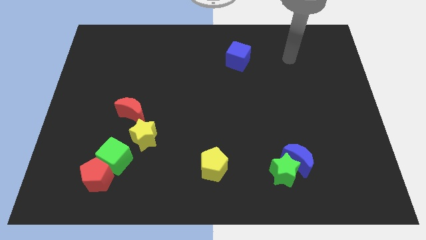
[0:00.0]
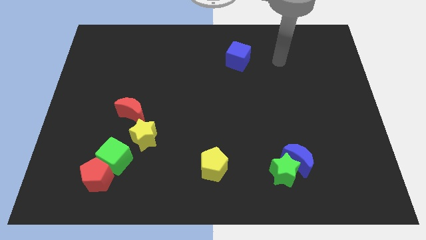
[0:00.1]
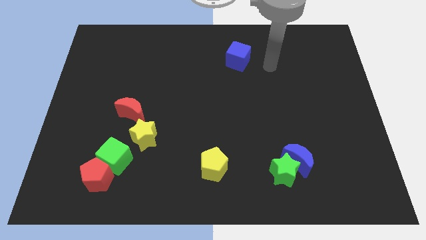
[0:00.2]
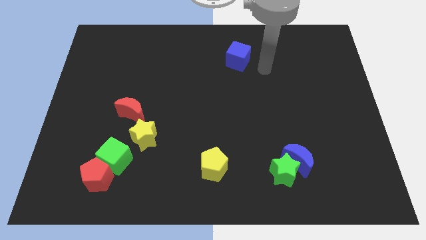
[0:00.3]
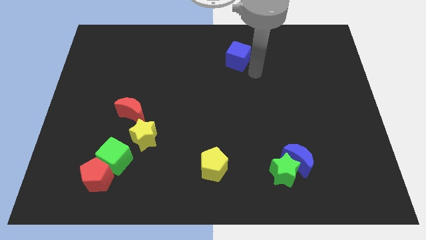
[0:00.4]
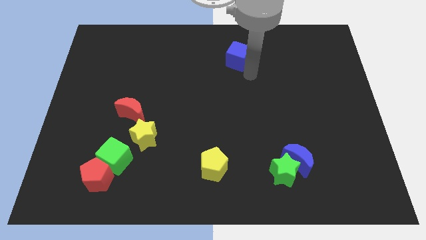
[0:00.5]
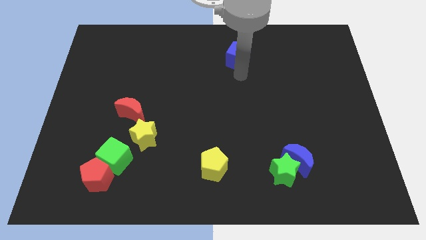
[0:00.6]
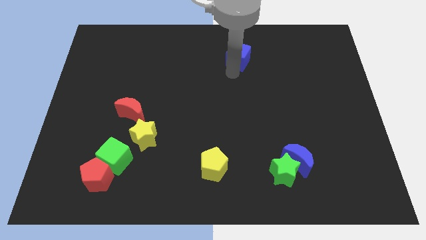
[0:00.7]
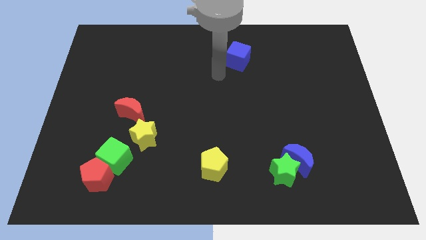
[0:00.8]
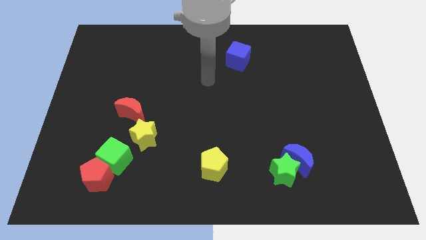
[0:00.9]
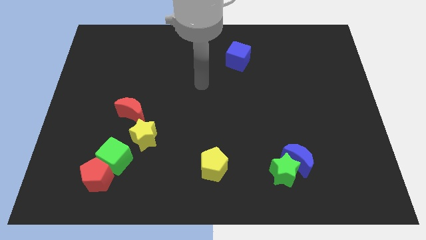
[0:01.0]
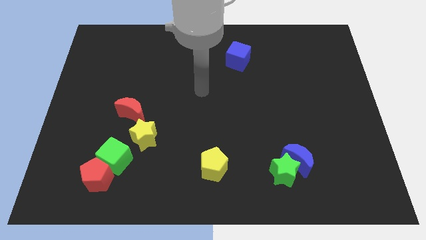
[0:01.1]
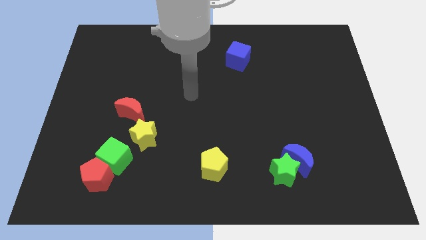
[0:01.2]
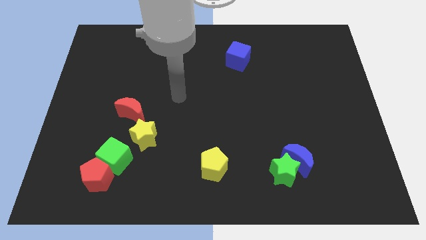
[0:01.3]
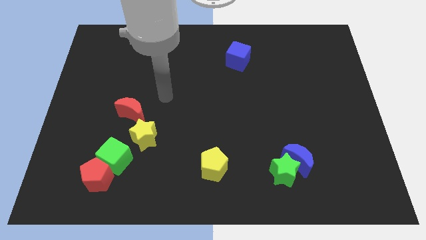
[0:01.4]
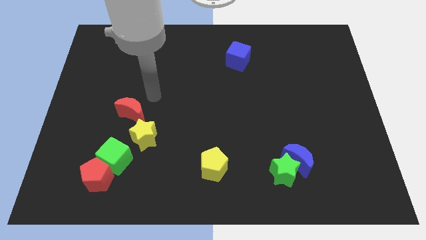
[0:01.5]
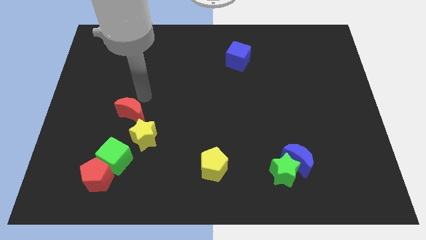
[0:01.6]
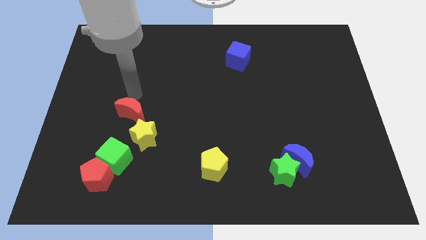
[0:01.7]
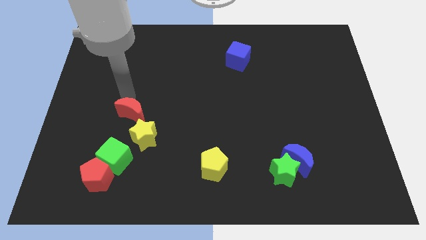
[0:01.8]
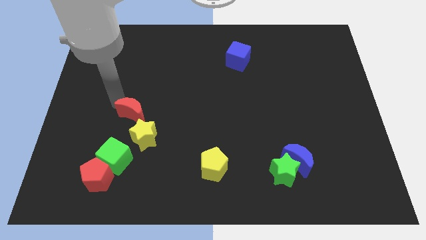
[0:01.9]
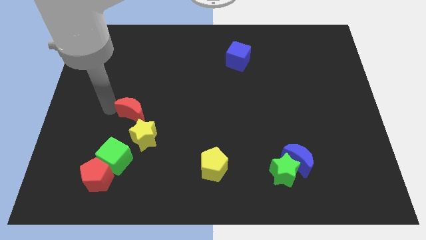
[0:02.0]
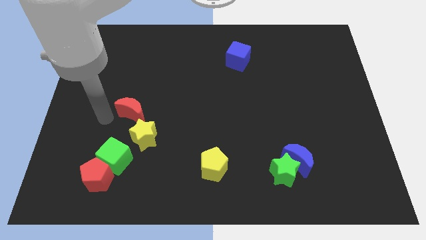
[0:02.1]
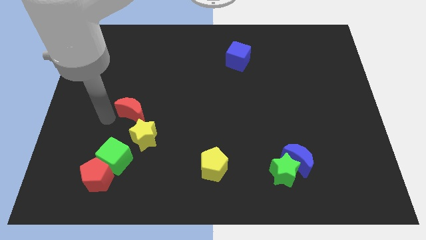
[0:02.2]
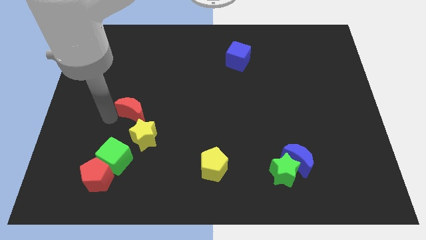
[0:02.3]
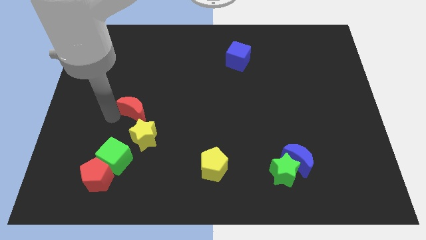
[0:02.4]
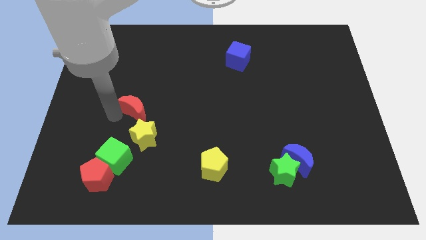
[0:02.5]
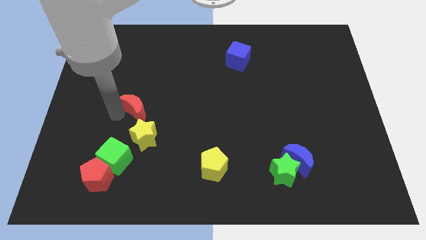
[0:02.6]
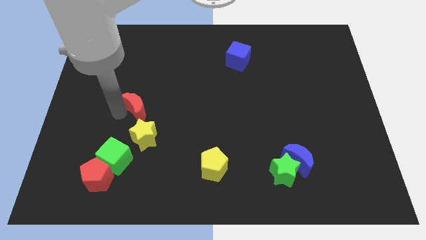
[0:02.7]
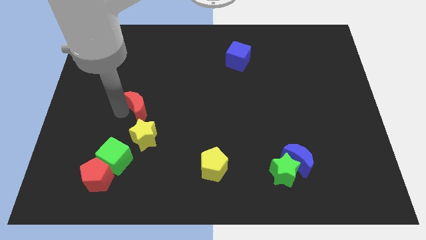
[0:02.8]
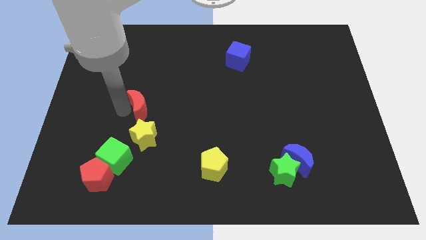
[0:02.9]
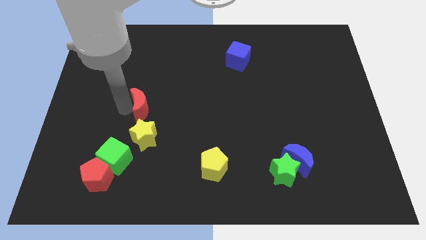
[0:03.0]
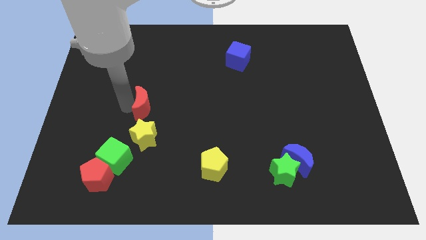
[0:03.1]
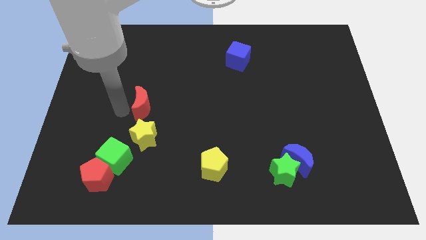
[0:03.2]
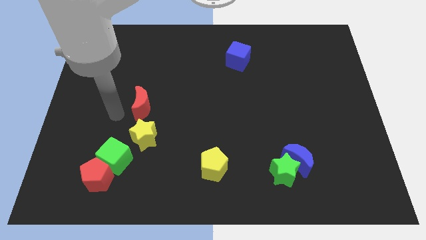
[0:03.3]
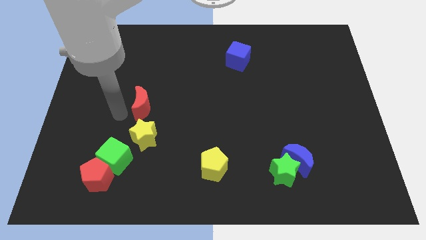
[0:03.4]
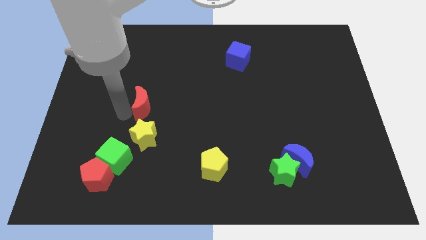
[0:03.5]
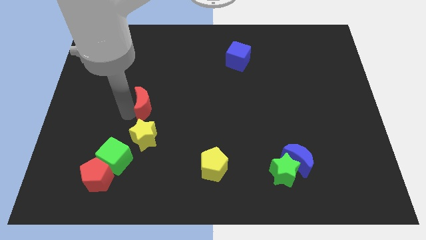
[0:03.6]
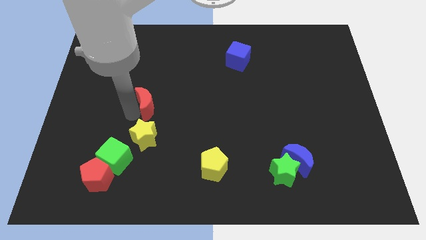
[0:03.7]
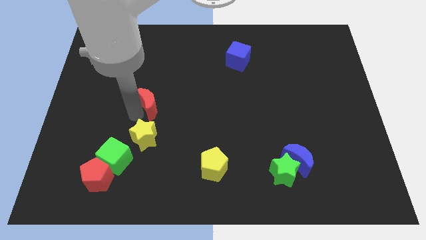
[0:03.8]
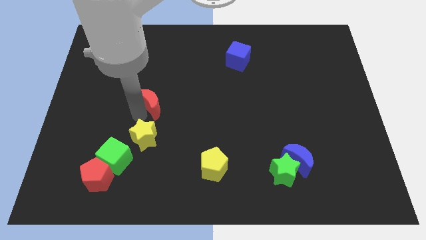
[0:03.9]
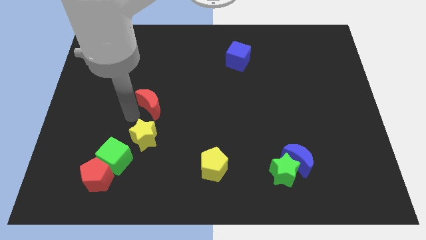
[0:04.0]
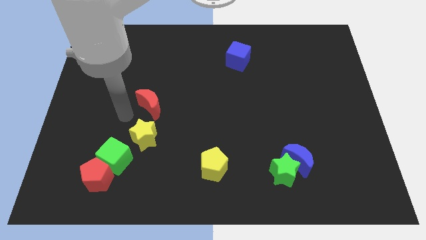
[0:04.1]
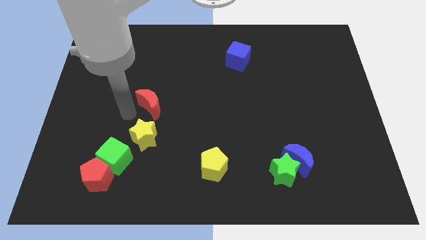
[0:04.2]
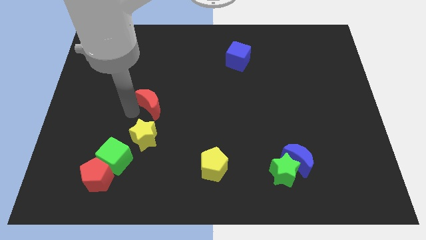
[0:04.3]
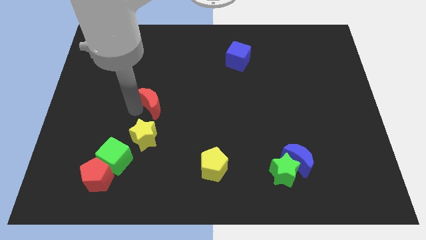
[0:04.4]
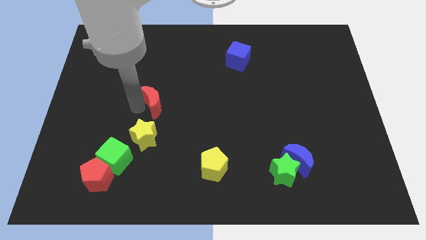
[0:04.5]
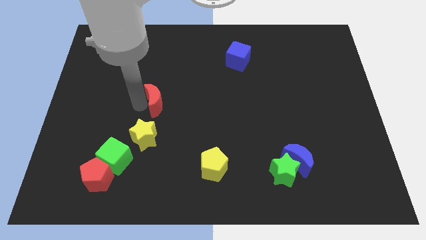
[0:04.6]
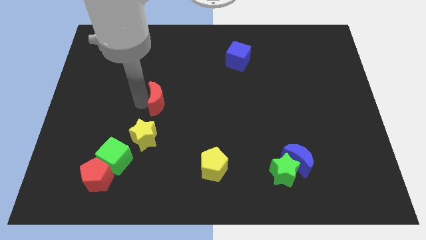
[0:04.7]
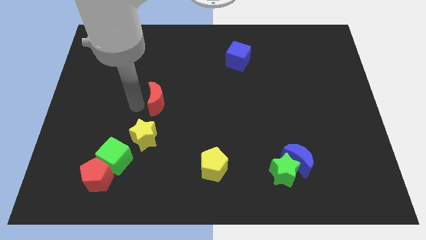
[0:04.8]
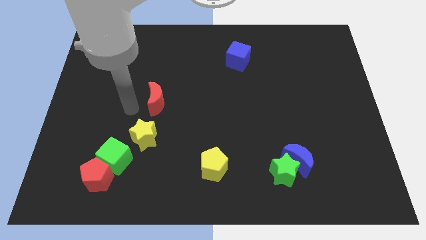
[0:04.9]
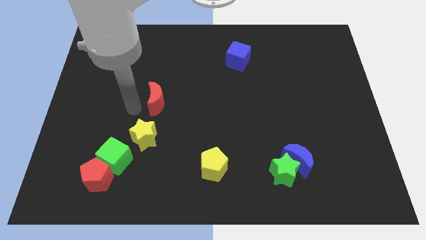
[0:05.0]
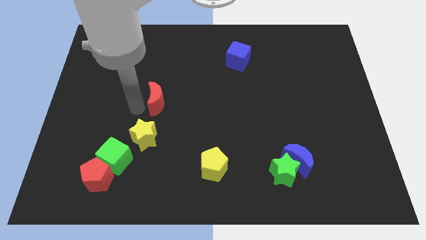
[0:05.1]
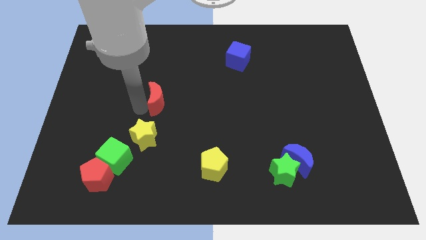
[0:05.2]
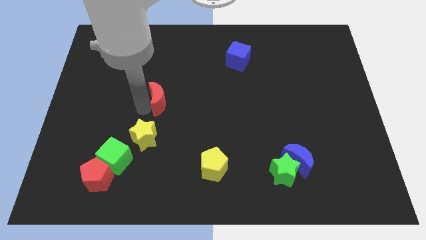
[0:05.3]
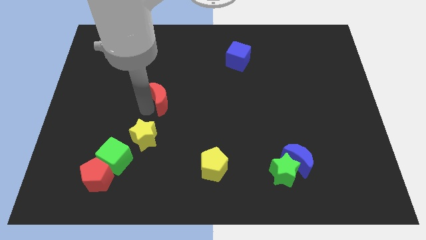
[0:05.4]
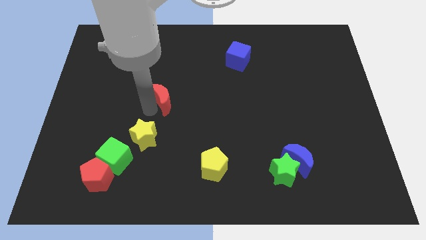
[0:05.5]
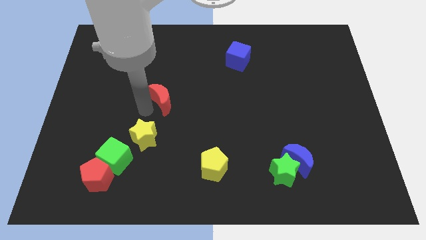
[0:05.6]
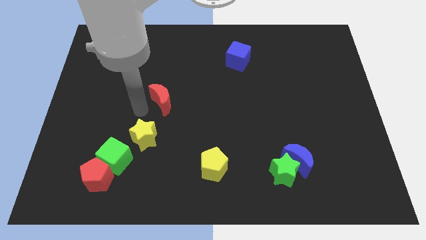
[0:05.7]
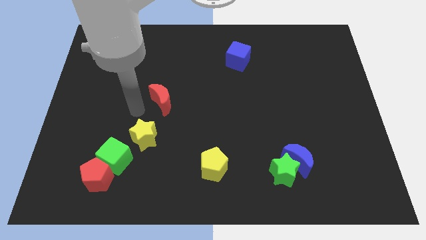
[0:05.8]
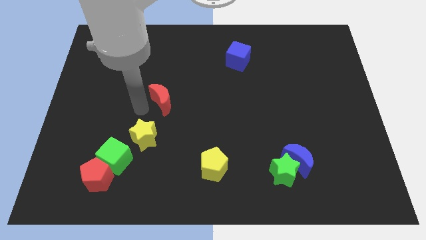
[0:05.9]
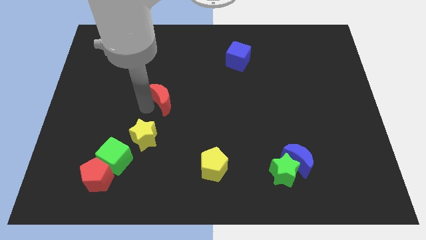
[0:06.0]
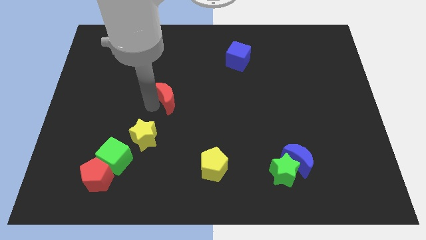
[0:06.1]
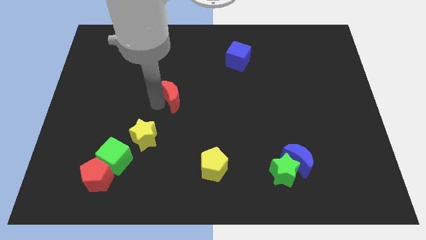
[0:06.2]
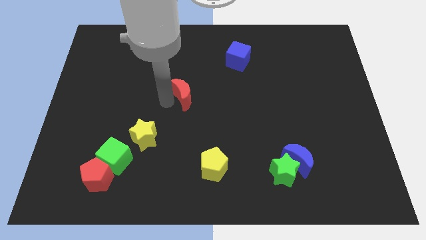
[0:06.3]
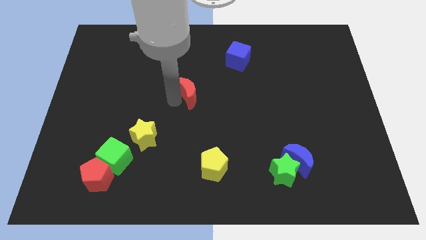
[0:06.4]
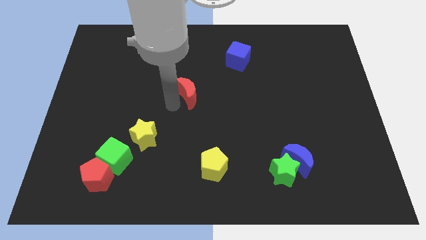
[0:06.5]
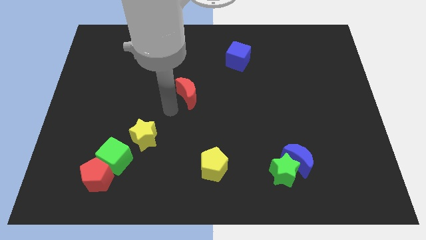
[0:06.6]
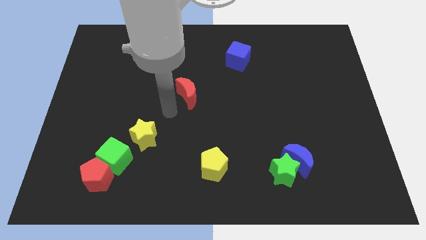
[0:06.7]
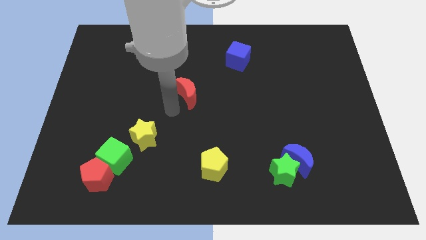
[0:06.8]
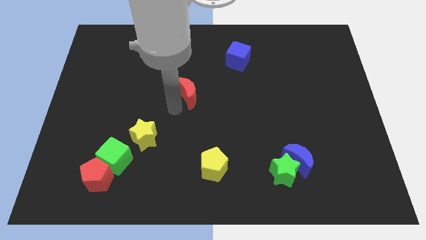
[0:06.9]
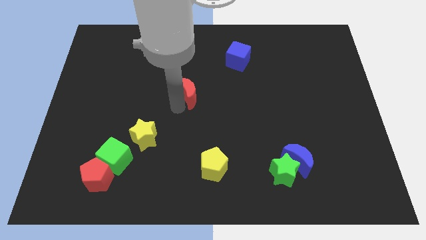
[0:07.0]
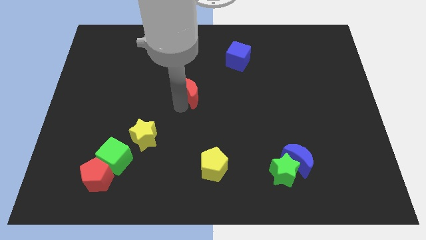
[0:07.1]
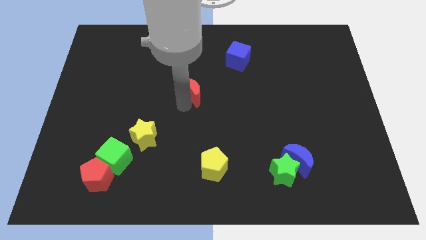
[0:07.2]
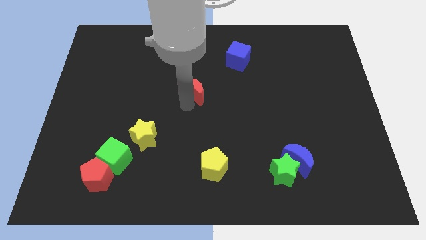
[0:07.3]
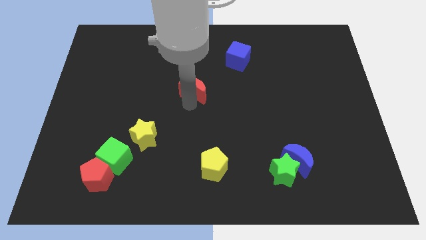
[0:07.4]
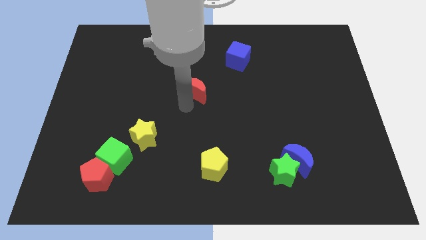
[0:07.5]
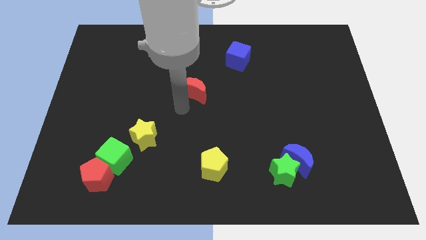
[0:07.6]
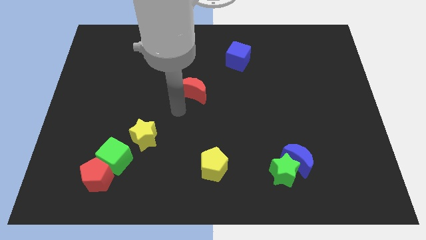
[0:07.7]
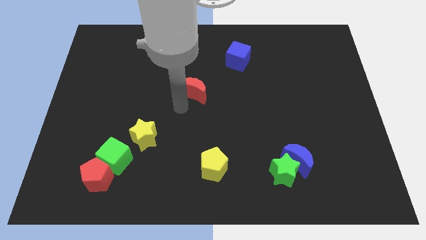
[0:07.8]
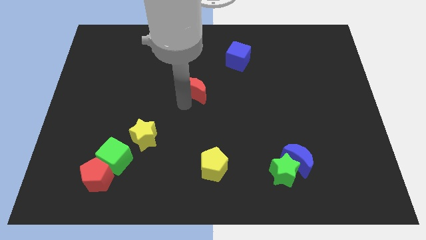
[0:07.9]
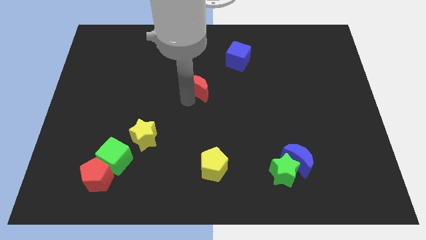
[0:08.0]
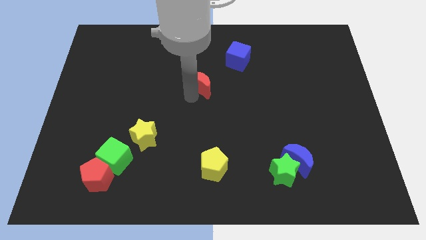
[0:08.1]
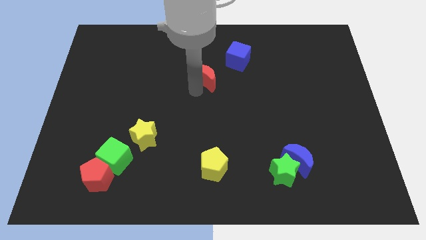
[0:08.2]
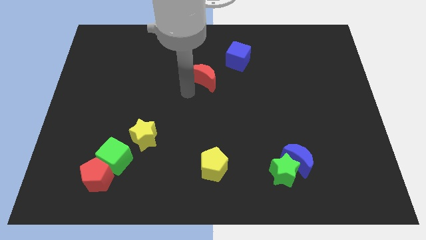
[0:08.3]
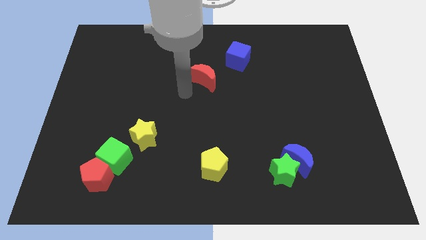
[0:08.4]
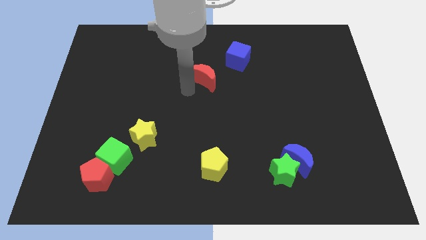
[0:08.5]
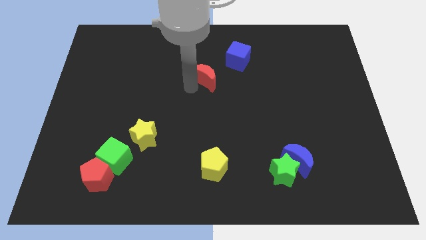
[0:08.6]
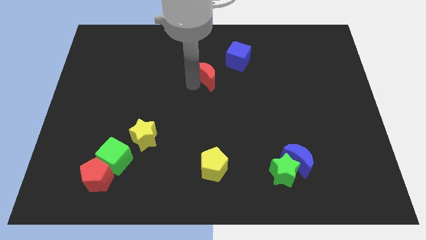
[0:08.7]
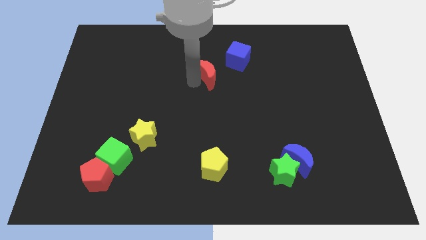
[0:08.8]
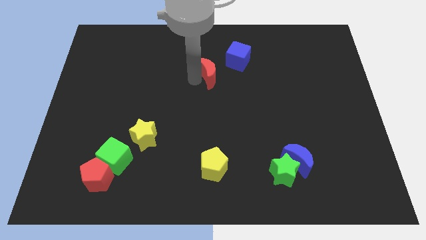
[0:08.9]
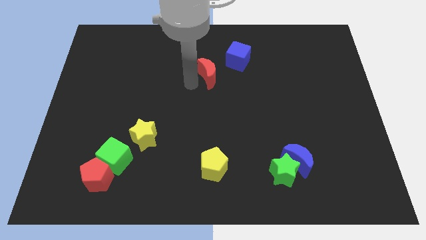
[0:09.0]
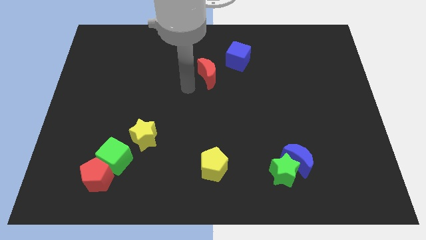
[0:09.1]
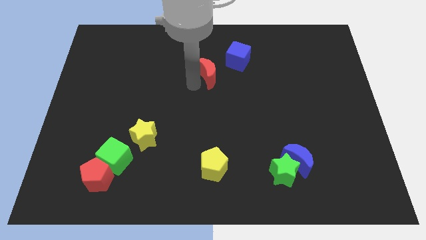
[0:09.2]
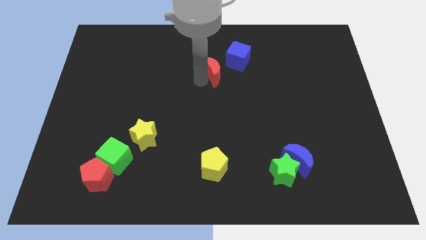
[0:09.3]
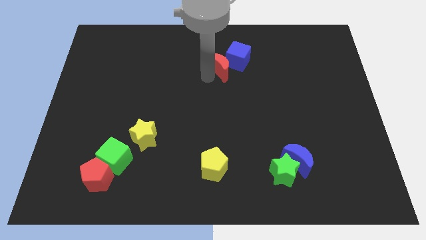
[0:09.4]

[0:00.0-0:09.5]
slide the red moon next to the blue cube
